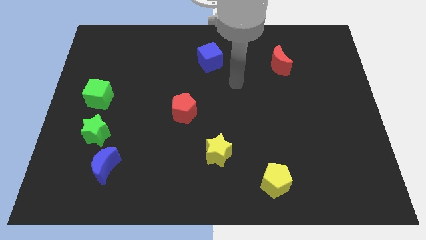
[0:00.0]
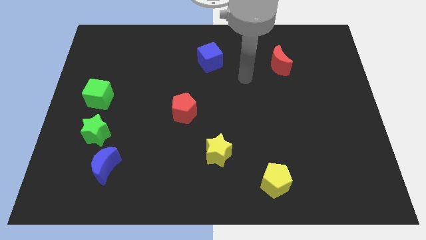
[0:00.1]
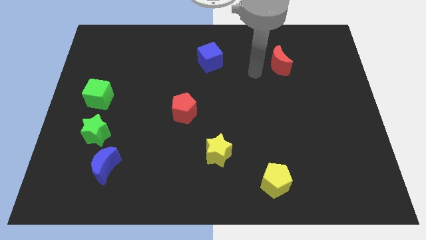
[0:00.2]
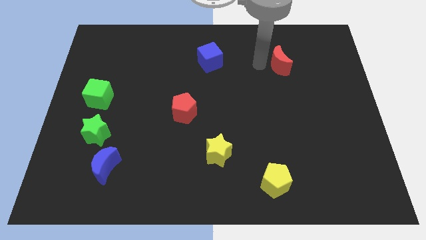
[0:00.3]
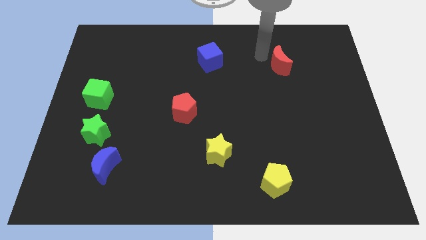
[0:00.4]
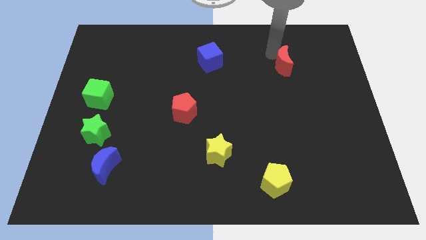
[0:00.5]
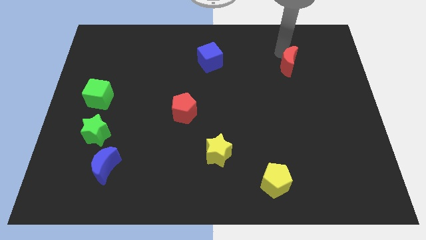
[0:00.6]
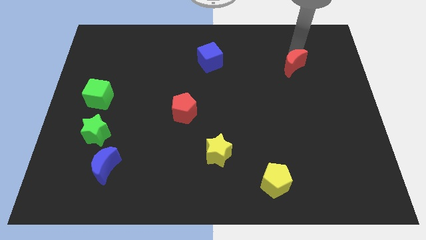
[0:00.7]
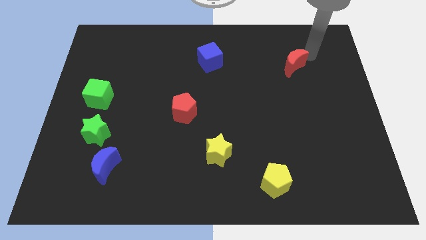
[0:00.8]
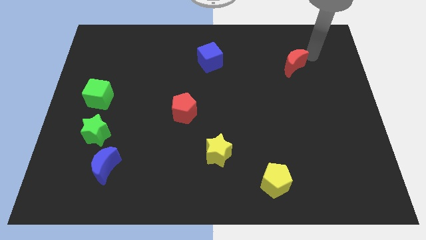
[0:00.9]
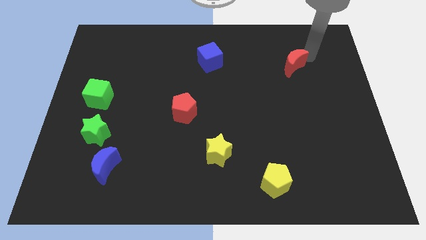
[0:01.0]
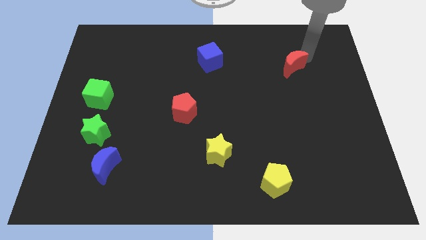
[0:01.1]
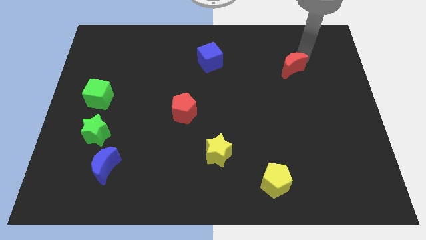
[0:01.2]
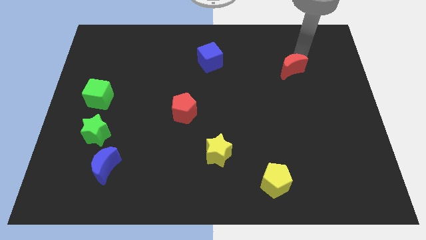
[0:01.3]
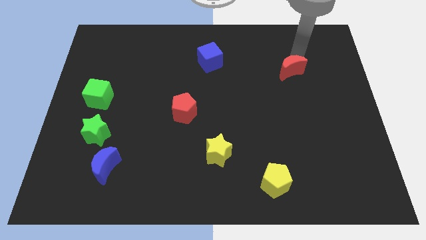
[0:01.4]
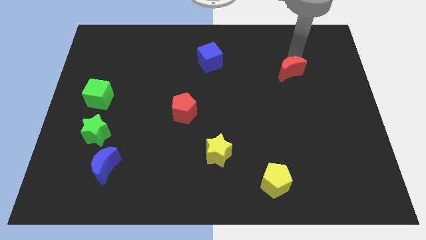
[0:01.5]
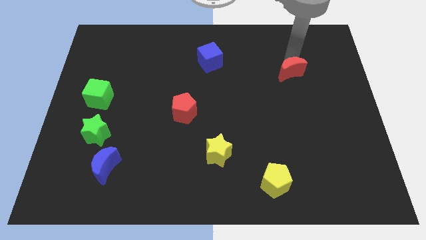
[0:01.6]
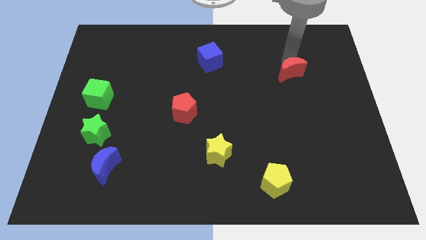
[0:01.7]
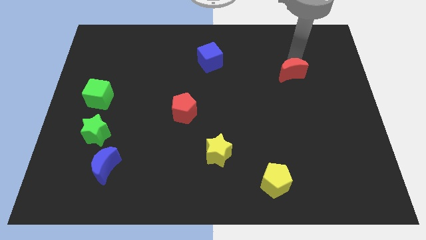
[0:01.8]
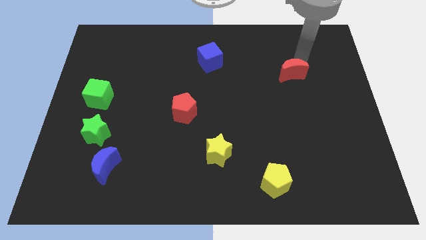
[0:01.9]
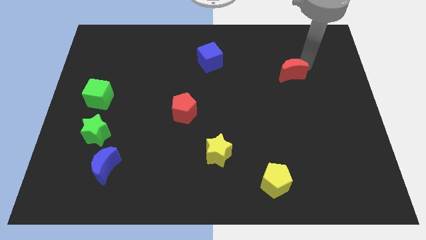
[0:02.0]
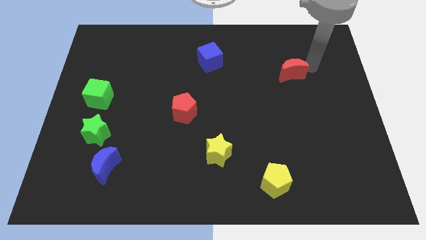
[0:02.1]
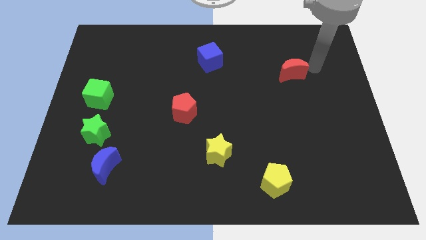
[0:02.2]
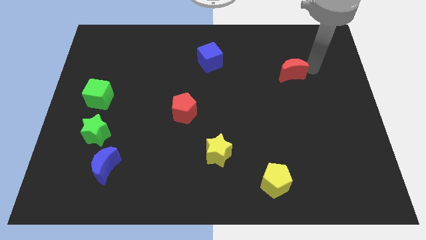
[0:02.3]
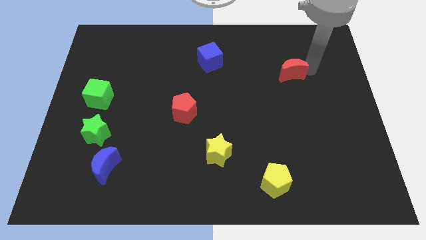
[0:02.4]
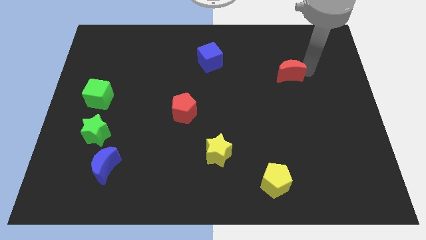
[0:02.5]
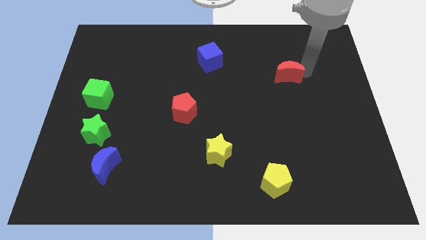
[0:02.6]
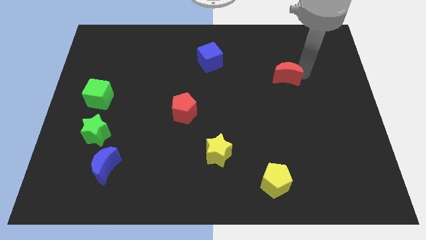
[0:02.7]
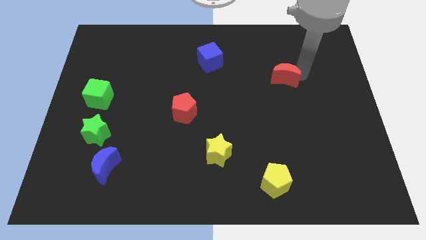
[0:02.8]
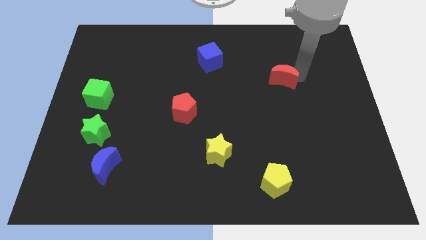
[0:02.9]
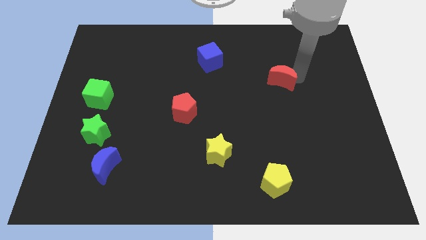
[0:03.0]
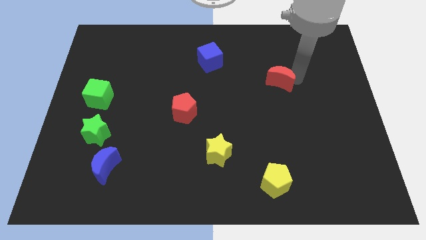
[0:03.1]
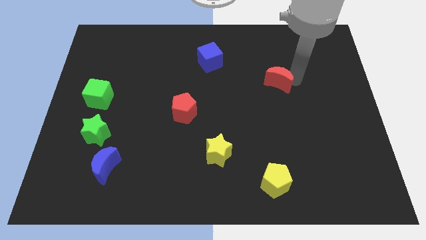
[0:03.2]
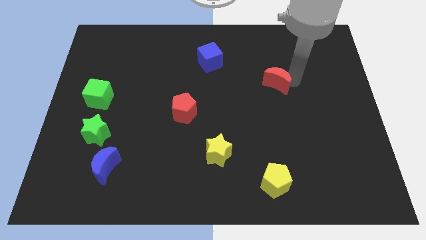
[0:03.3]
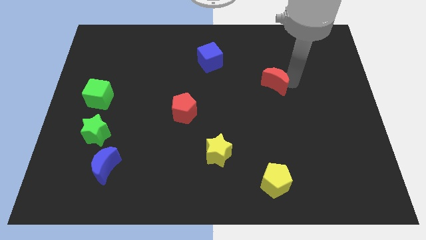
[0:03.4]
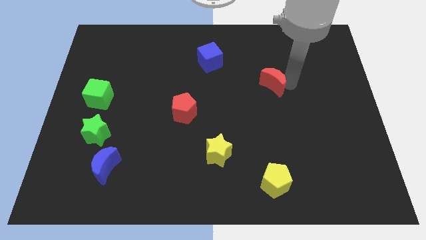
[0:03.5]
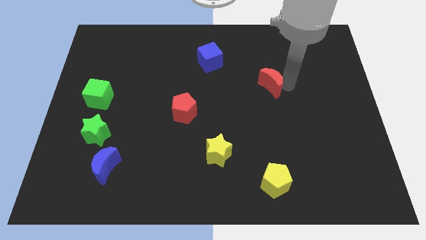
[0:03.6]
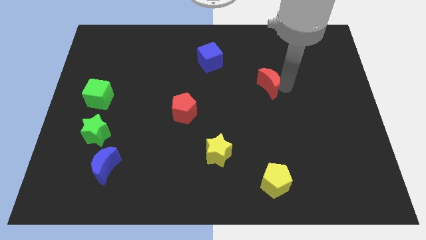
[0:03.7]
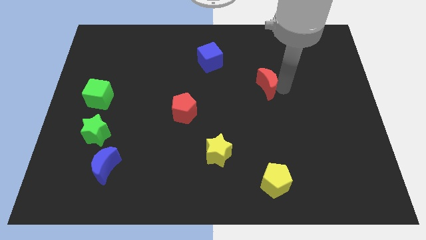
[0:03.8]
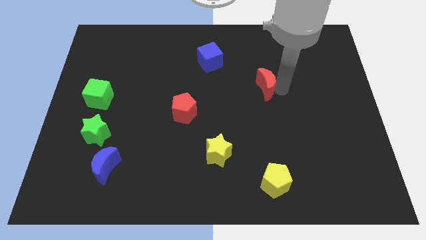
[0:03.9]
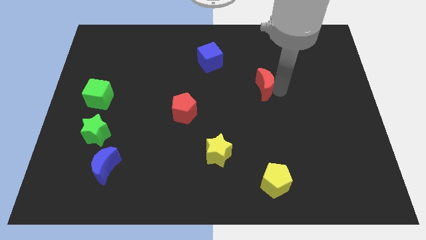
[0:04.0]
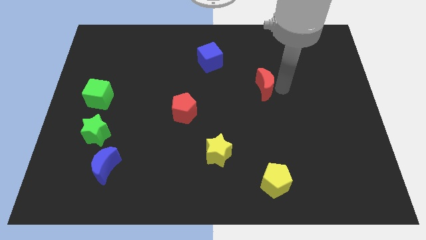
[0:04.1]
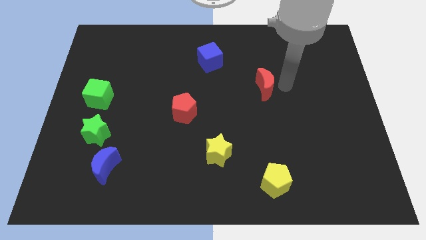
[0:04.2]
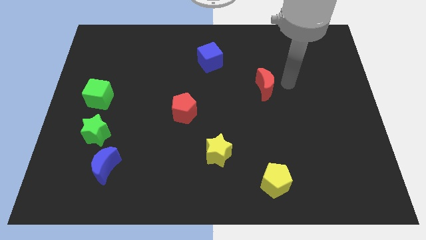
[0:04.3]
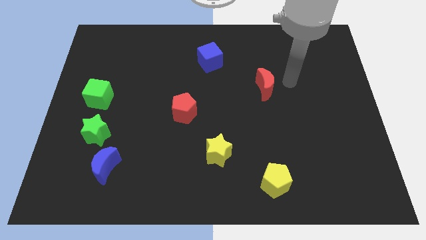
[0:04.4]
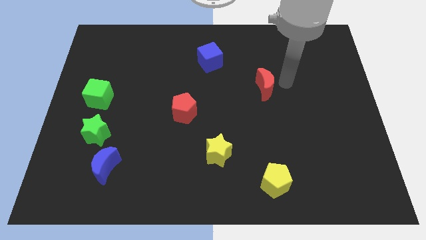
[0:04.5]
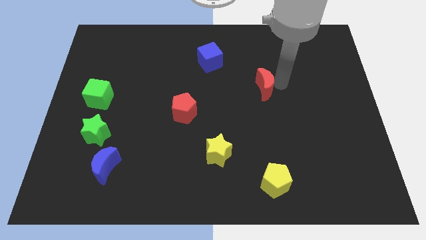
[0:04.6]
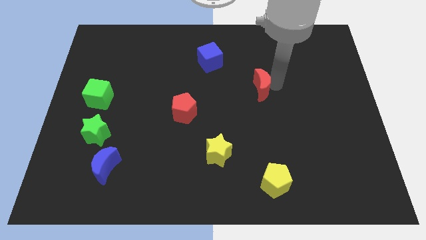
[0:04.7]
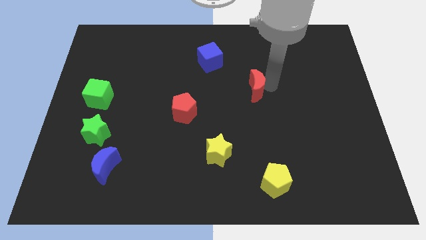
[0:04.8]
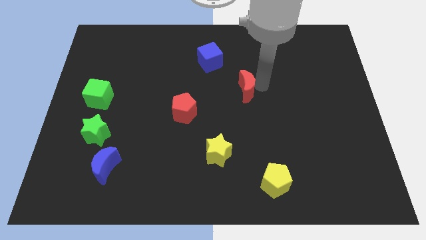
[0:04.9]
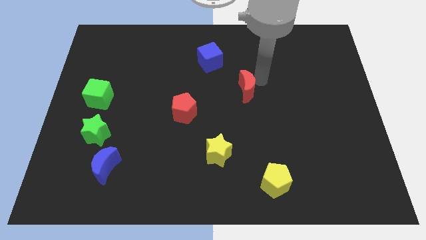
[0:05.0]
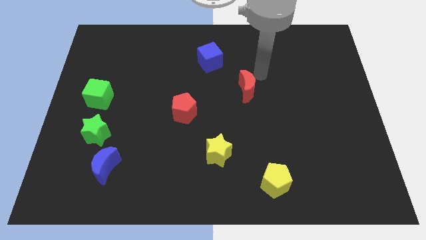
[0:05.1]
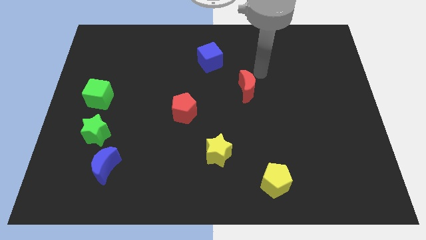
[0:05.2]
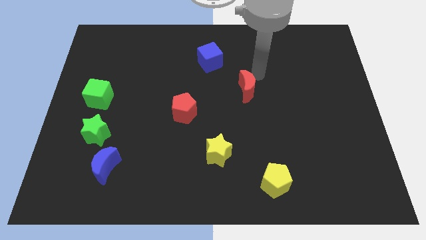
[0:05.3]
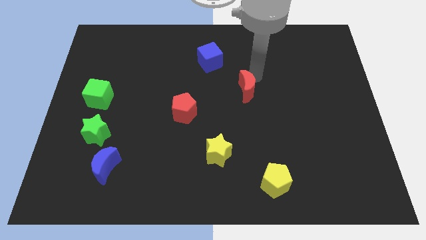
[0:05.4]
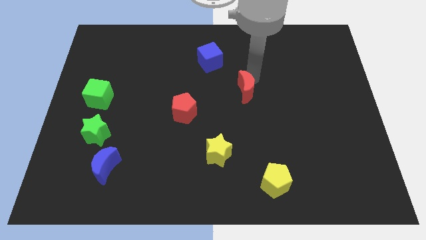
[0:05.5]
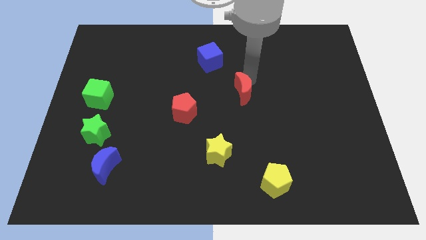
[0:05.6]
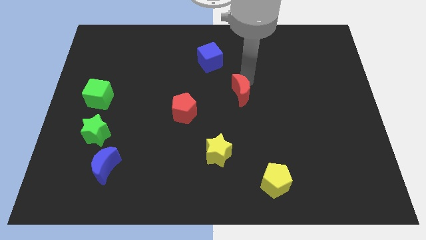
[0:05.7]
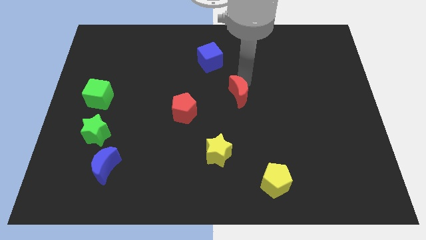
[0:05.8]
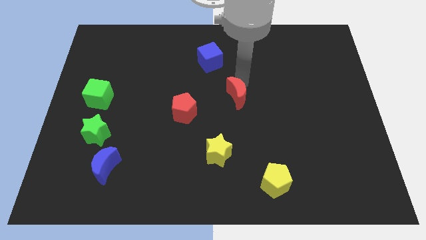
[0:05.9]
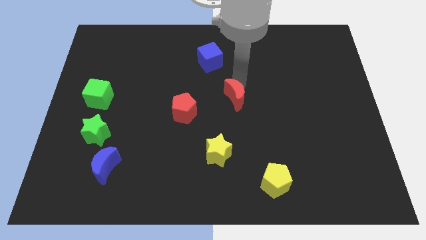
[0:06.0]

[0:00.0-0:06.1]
move the red moon right of the red pentagon

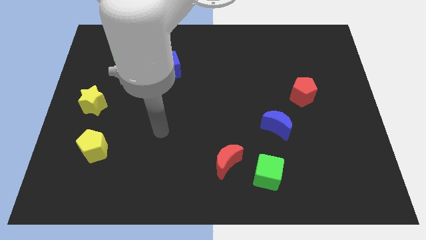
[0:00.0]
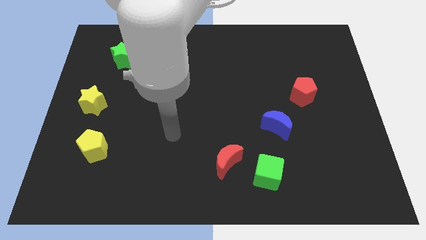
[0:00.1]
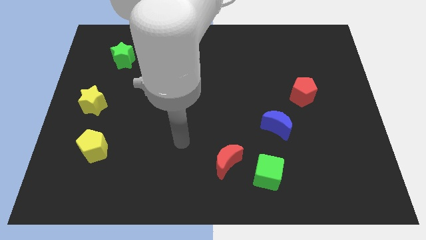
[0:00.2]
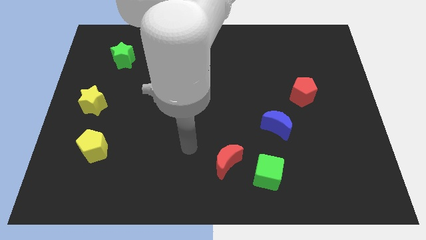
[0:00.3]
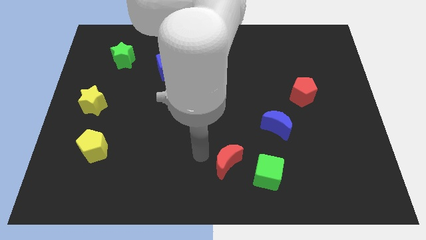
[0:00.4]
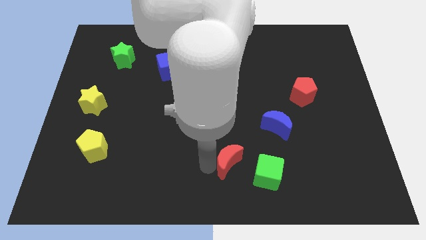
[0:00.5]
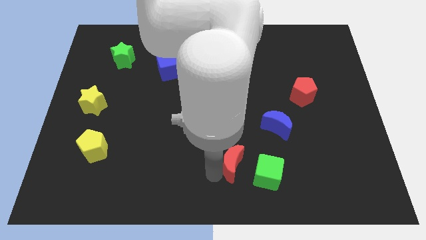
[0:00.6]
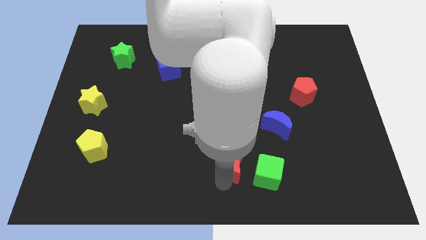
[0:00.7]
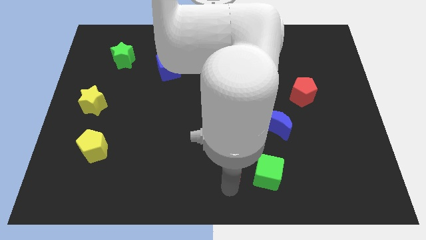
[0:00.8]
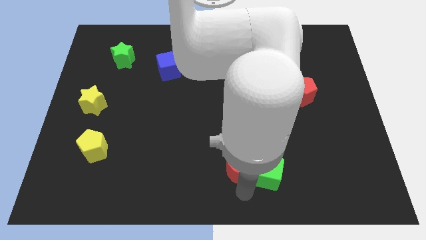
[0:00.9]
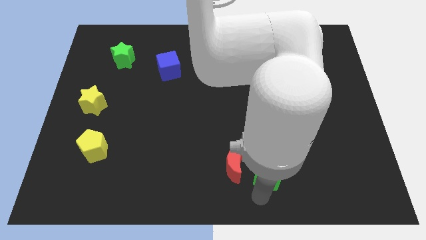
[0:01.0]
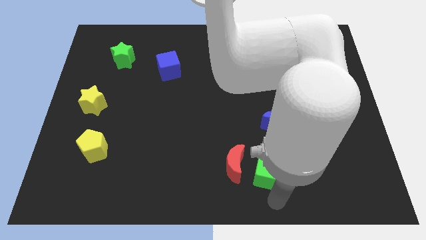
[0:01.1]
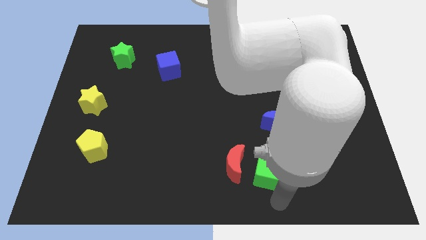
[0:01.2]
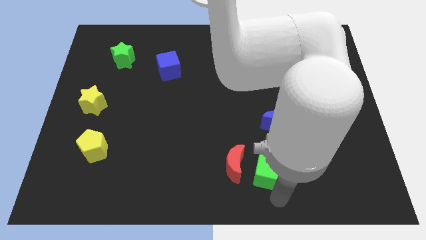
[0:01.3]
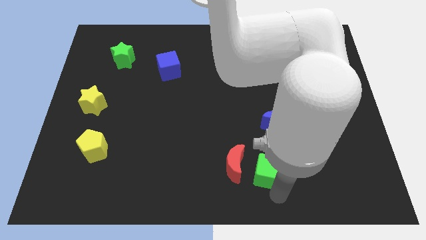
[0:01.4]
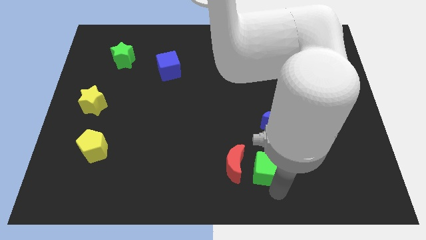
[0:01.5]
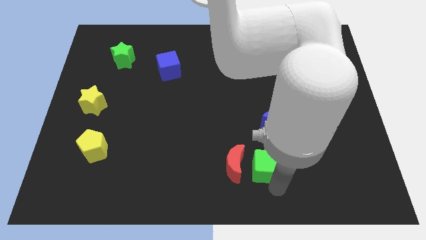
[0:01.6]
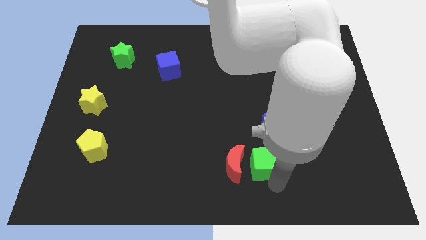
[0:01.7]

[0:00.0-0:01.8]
slide the green cube to the bottom left of the blue moon
